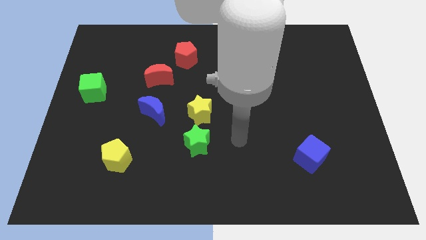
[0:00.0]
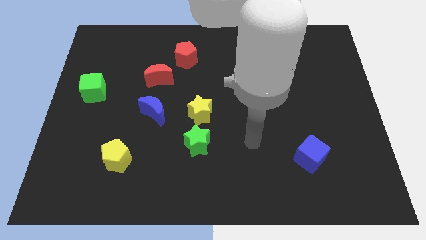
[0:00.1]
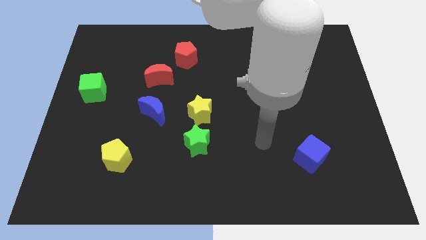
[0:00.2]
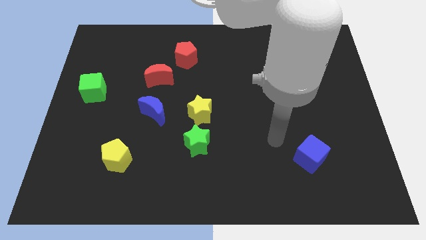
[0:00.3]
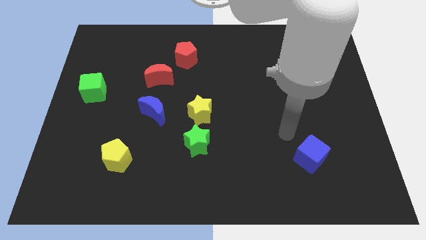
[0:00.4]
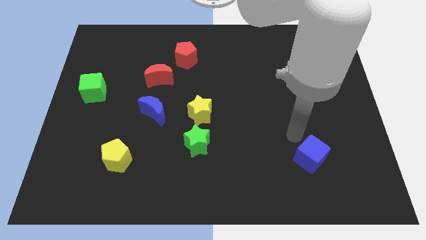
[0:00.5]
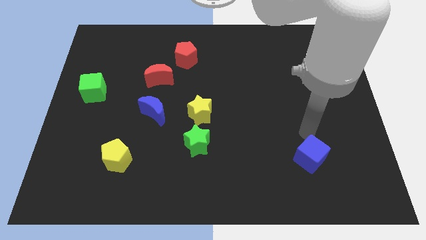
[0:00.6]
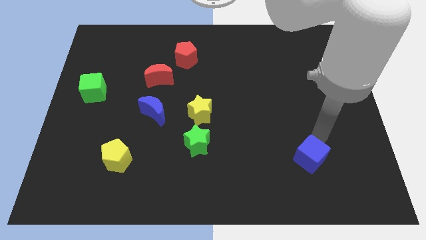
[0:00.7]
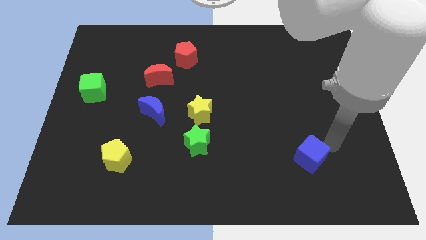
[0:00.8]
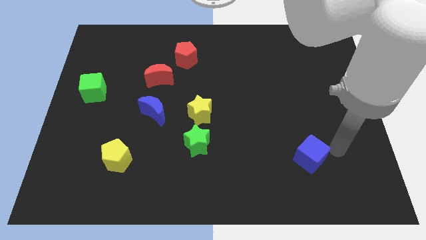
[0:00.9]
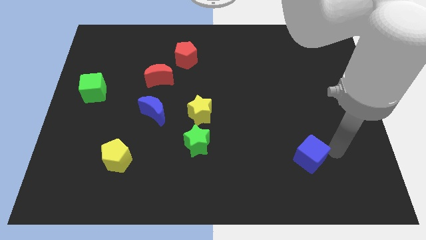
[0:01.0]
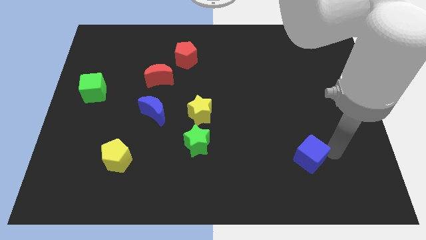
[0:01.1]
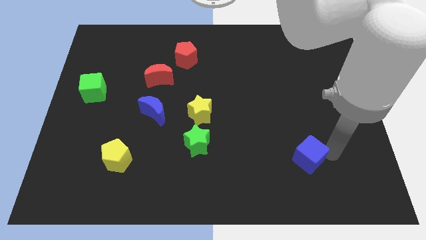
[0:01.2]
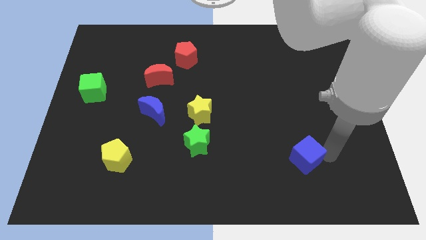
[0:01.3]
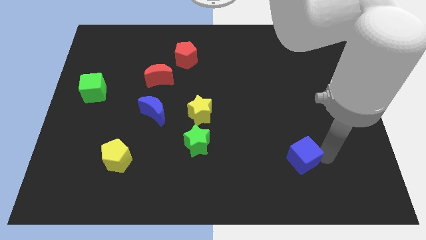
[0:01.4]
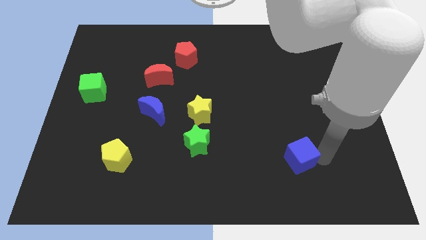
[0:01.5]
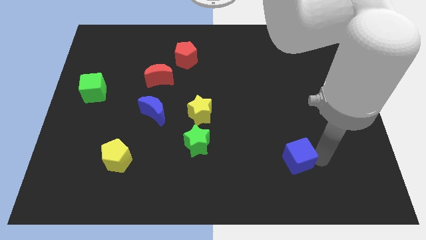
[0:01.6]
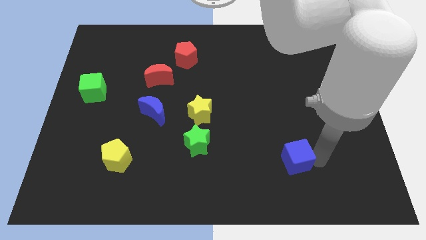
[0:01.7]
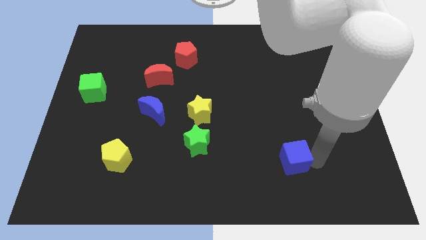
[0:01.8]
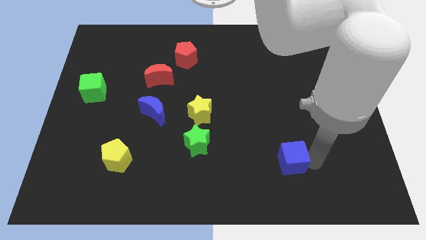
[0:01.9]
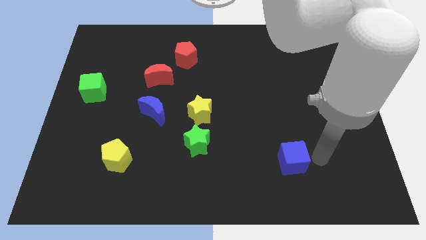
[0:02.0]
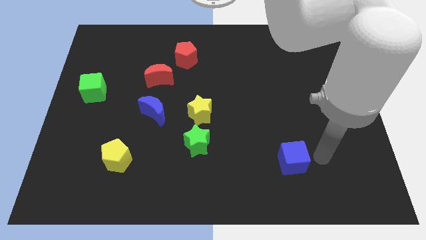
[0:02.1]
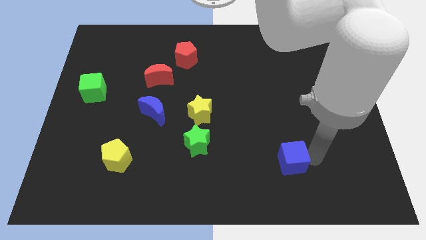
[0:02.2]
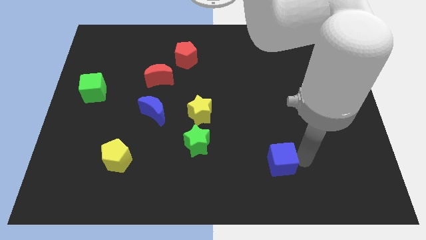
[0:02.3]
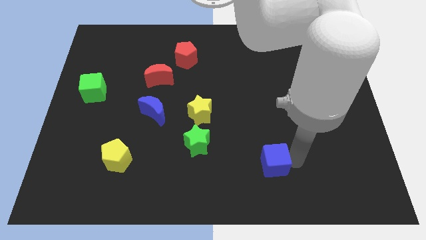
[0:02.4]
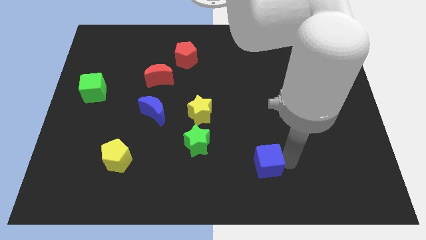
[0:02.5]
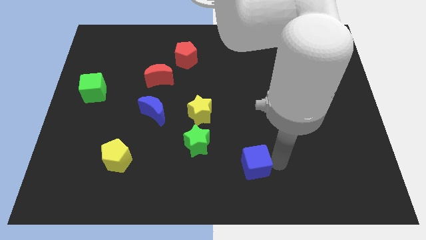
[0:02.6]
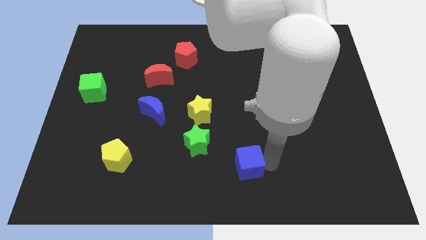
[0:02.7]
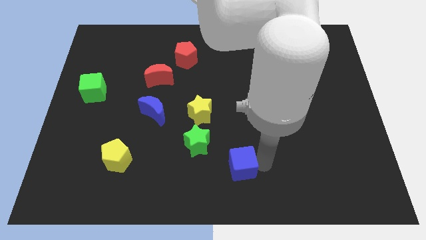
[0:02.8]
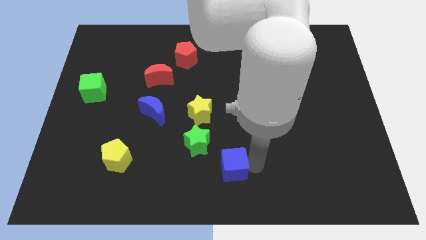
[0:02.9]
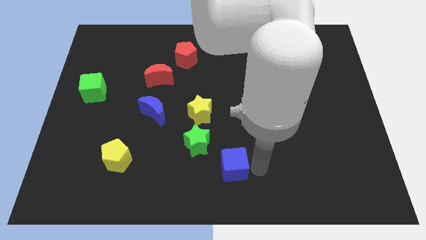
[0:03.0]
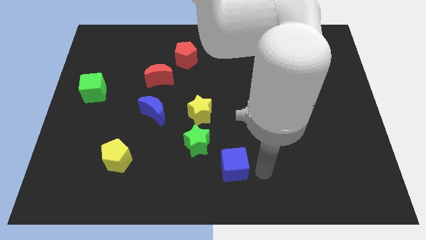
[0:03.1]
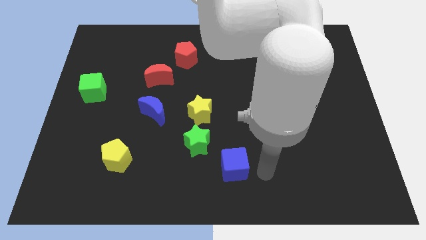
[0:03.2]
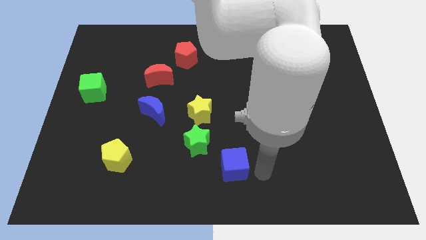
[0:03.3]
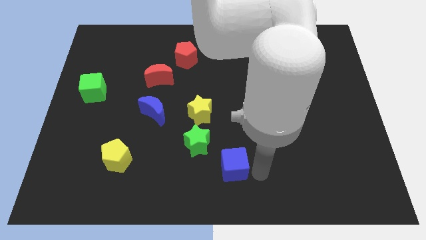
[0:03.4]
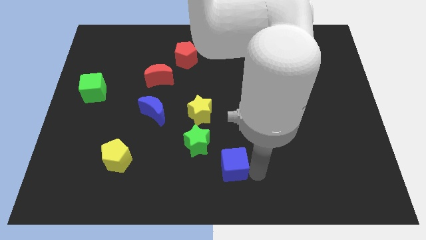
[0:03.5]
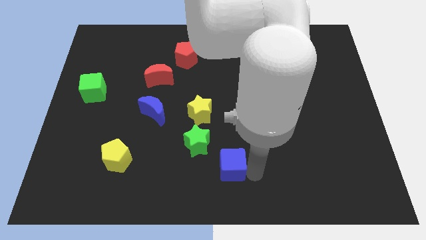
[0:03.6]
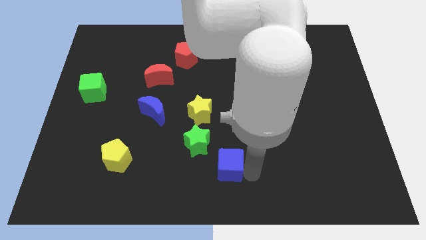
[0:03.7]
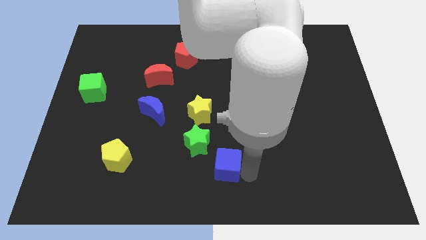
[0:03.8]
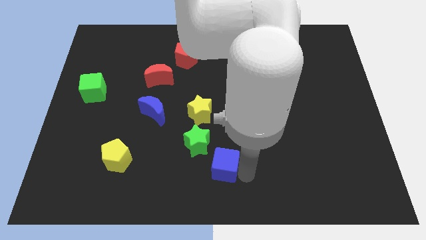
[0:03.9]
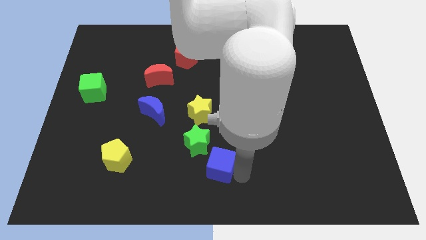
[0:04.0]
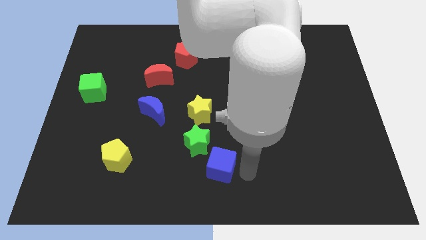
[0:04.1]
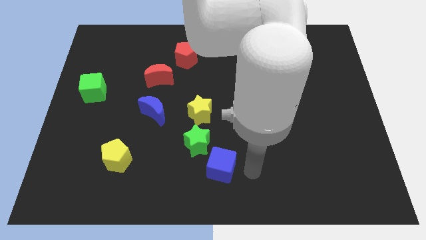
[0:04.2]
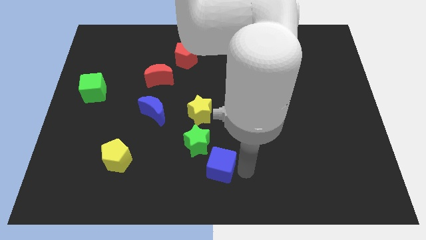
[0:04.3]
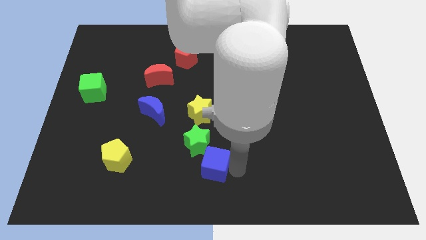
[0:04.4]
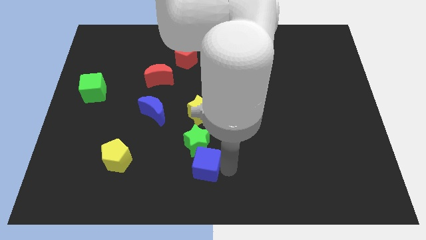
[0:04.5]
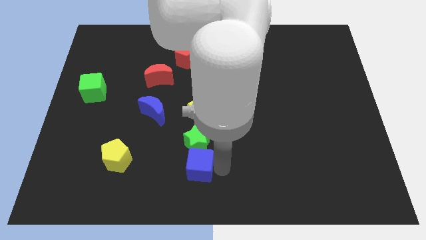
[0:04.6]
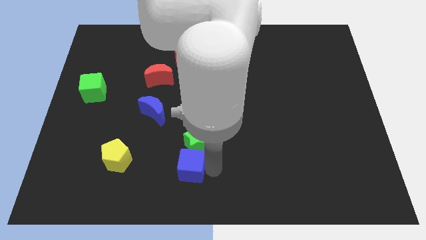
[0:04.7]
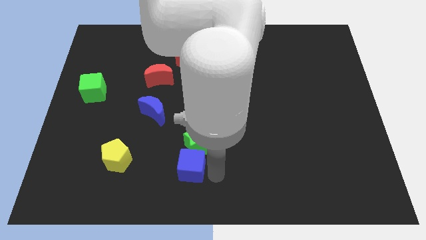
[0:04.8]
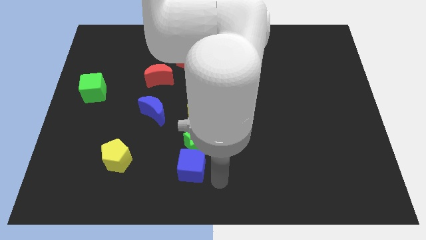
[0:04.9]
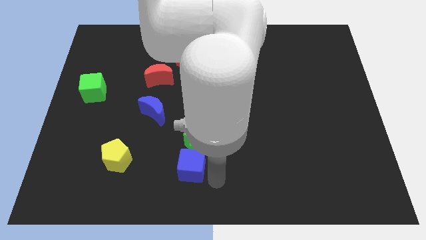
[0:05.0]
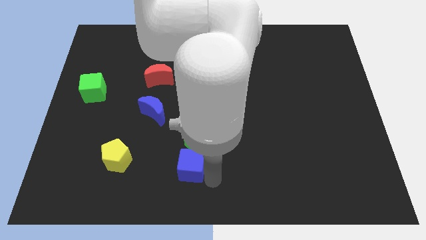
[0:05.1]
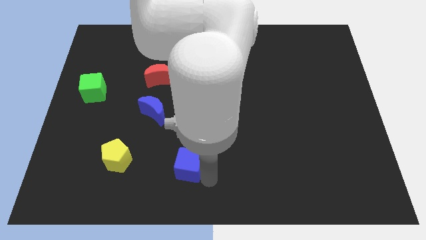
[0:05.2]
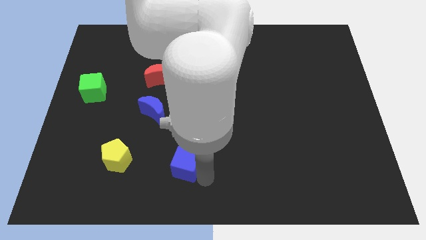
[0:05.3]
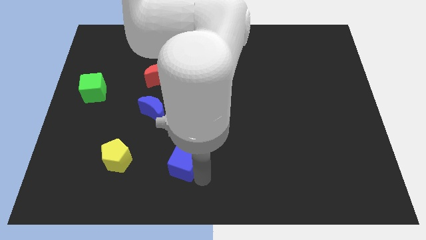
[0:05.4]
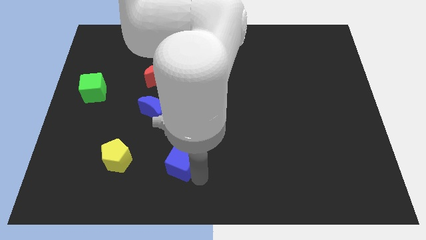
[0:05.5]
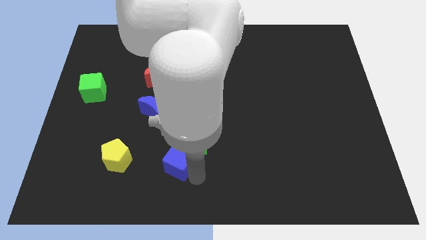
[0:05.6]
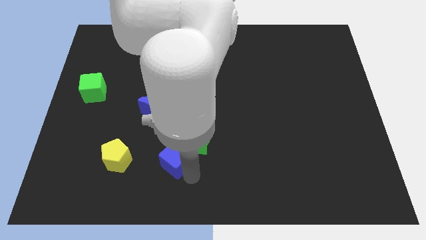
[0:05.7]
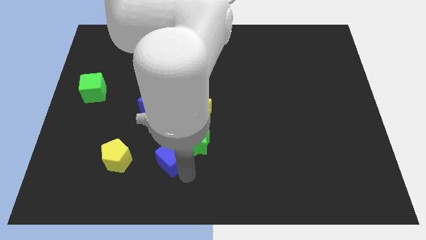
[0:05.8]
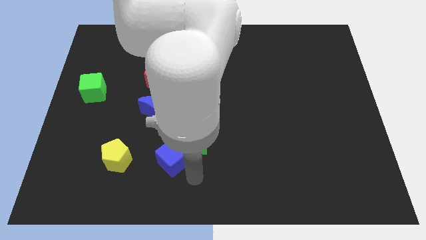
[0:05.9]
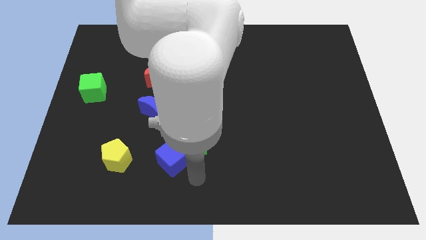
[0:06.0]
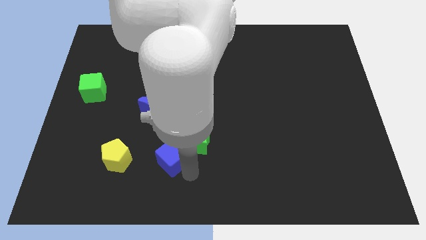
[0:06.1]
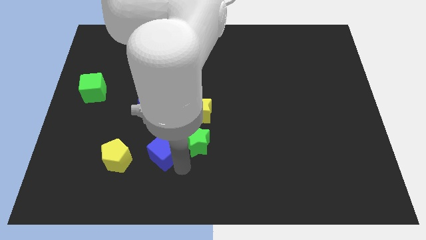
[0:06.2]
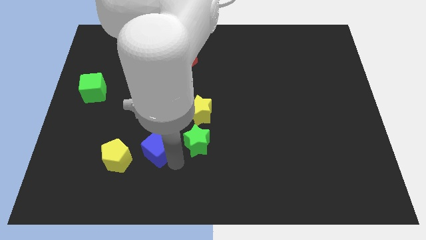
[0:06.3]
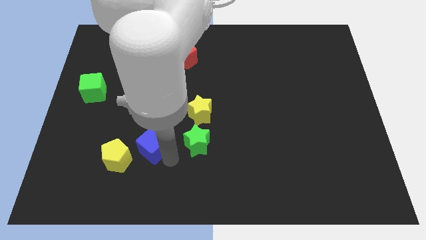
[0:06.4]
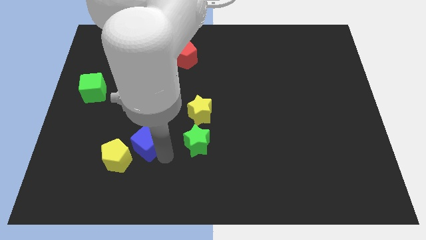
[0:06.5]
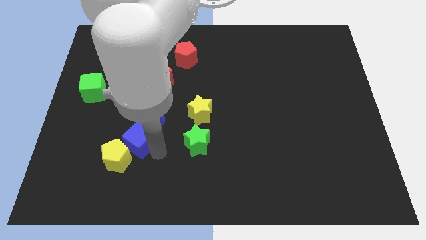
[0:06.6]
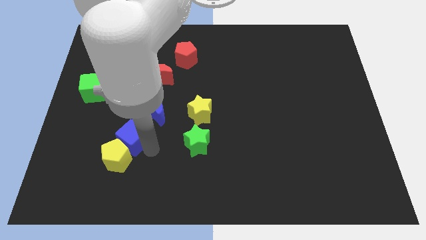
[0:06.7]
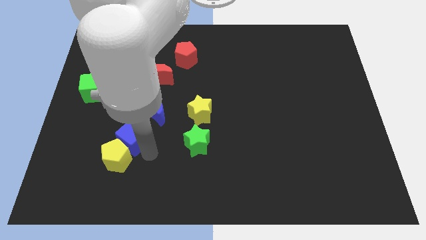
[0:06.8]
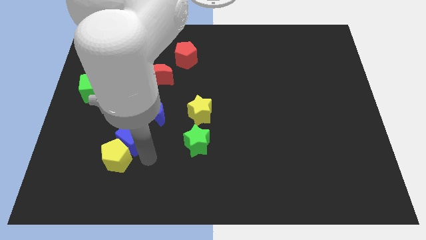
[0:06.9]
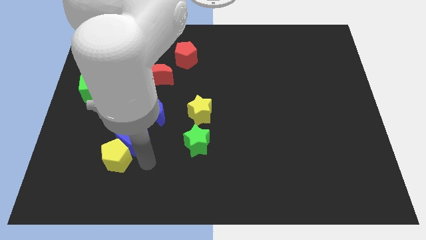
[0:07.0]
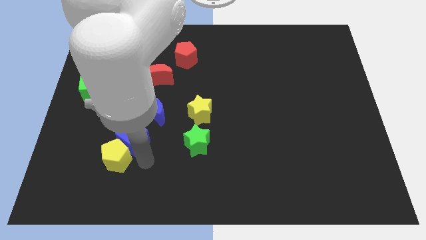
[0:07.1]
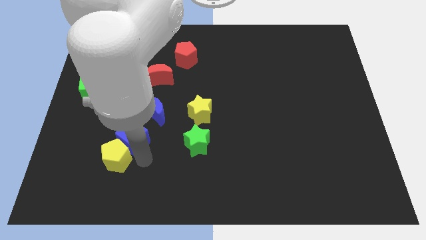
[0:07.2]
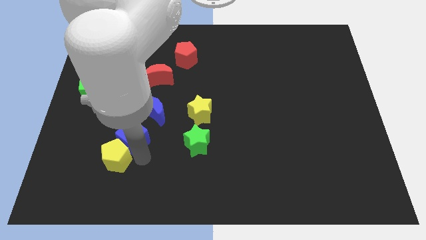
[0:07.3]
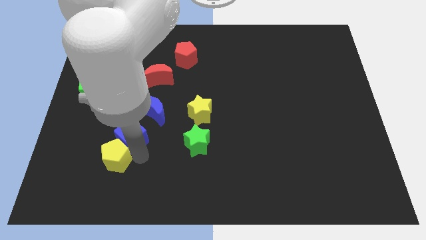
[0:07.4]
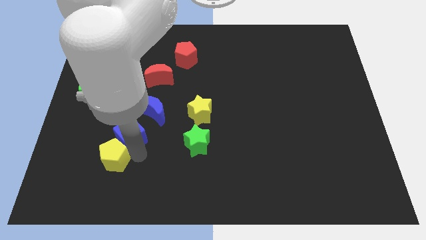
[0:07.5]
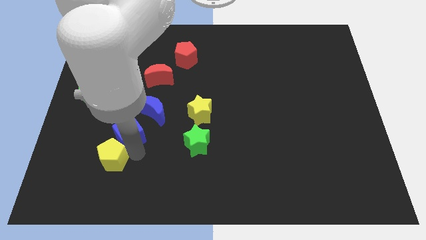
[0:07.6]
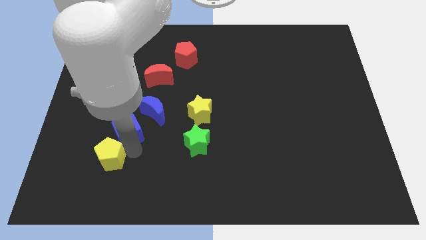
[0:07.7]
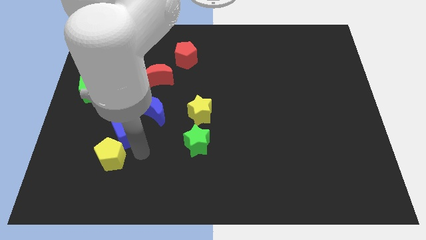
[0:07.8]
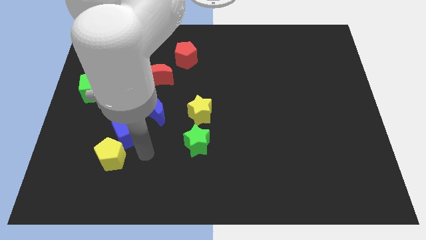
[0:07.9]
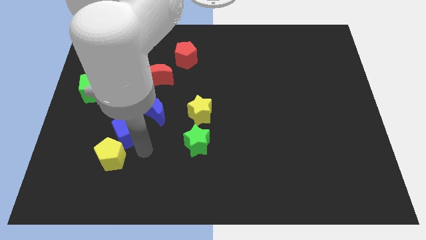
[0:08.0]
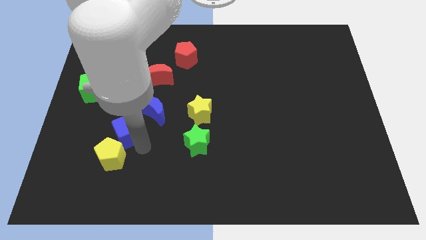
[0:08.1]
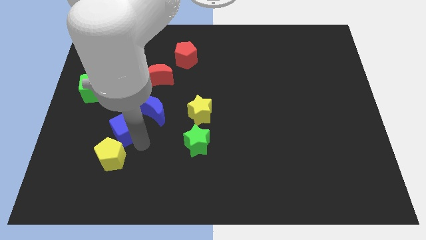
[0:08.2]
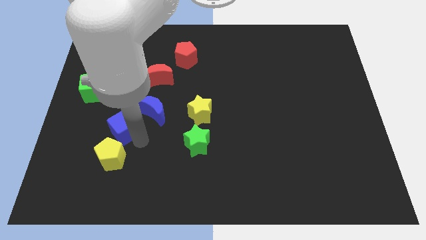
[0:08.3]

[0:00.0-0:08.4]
slide the blue cube left of the blue moon
